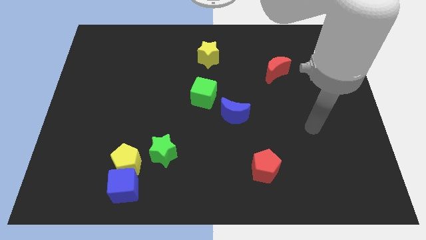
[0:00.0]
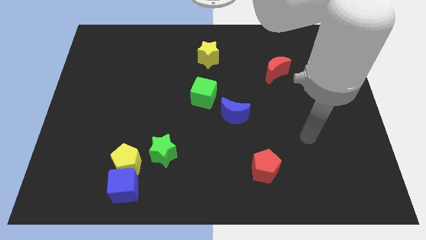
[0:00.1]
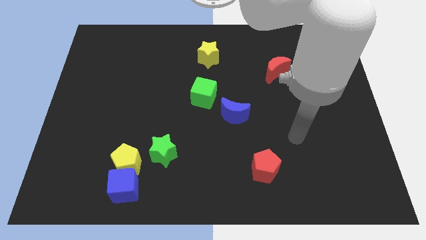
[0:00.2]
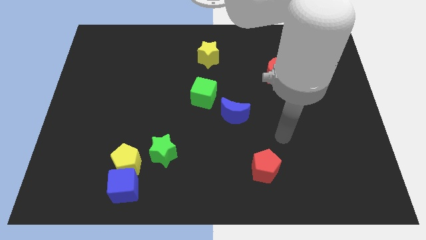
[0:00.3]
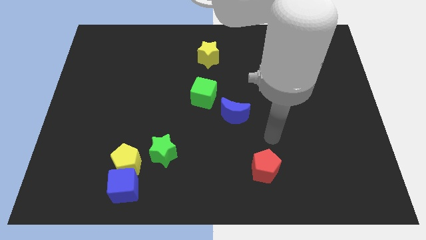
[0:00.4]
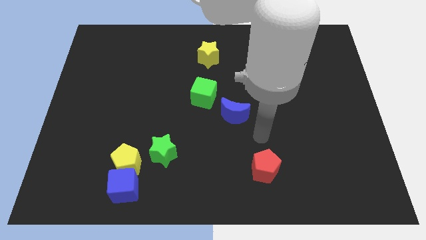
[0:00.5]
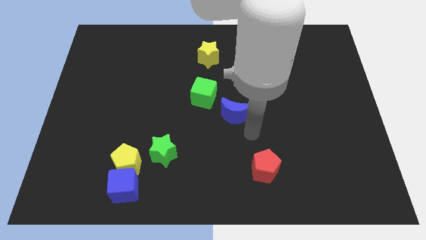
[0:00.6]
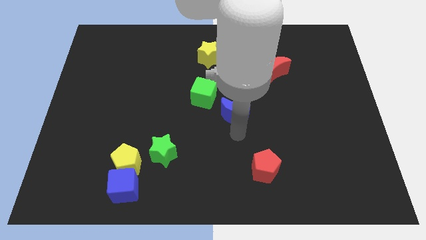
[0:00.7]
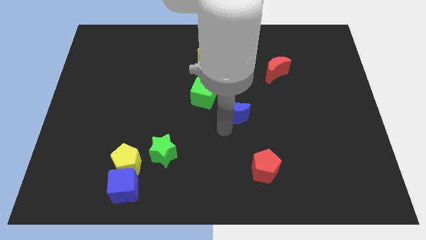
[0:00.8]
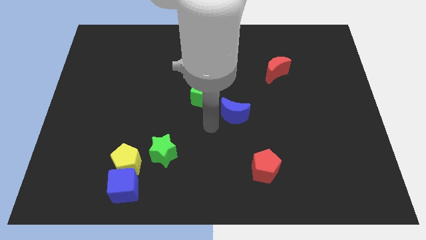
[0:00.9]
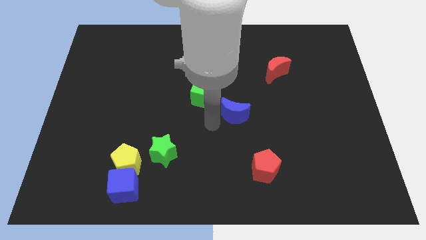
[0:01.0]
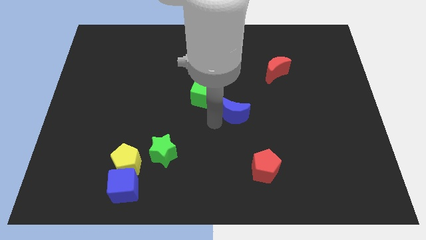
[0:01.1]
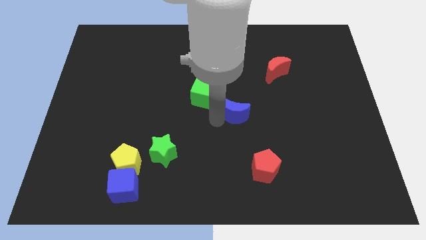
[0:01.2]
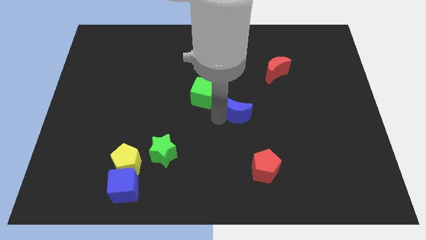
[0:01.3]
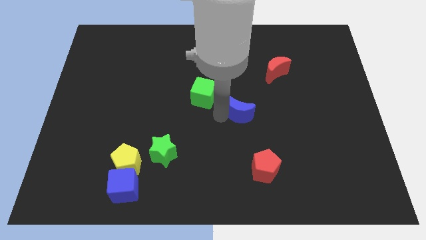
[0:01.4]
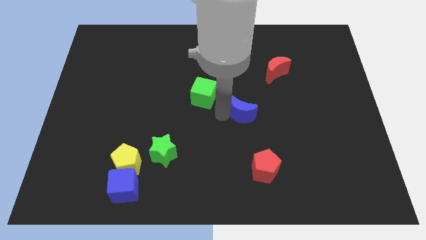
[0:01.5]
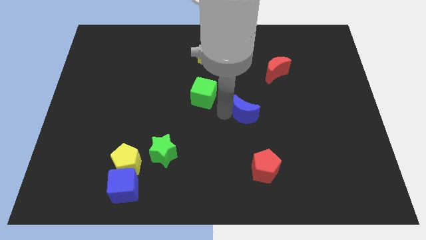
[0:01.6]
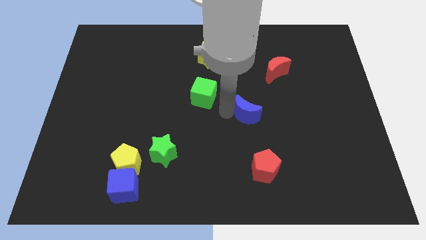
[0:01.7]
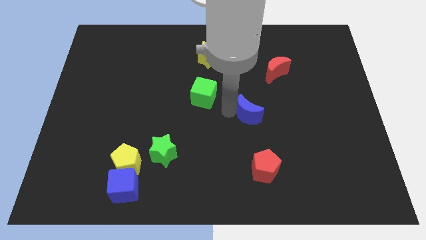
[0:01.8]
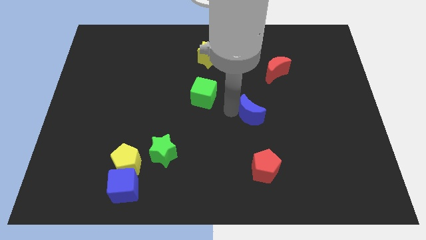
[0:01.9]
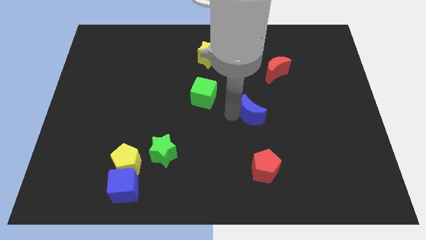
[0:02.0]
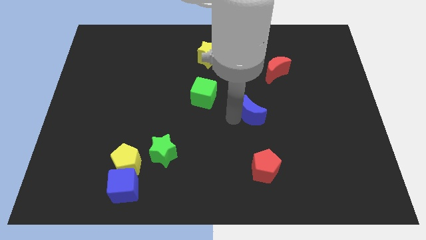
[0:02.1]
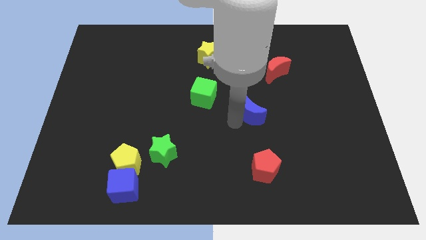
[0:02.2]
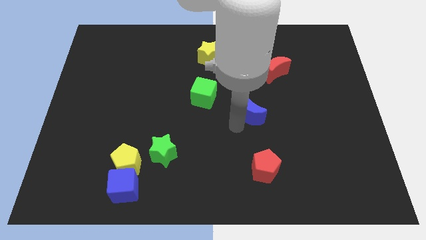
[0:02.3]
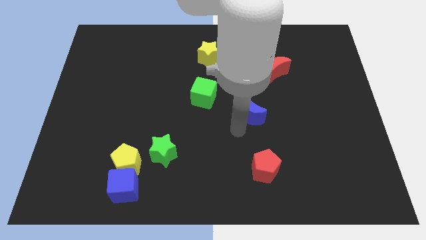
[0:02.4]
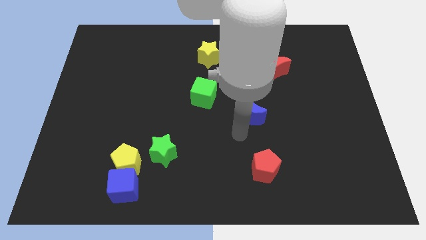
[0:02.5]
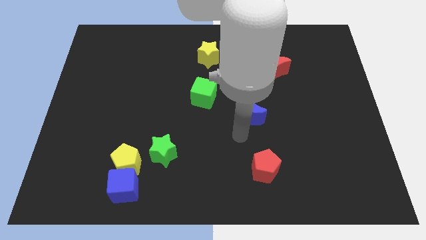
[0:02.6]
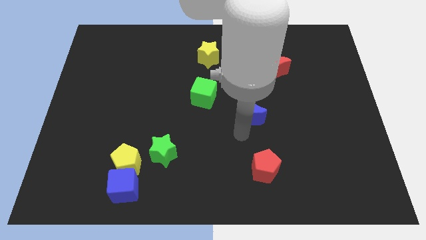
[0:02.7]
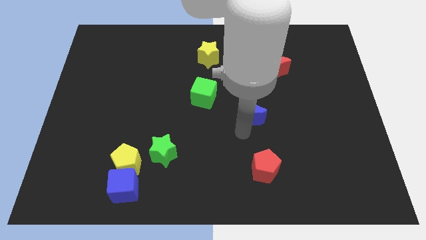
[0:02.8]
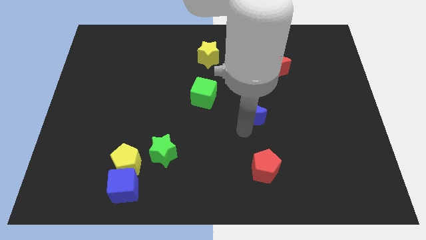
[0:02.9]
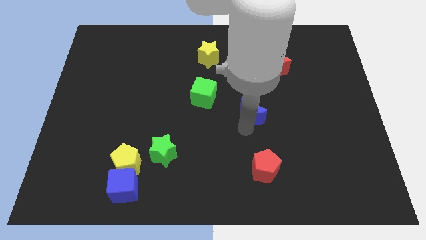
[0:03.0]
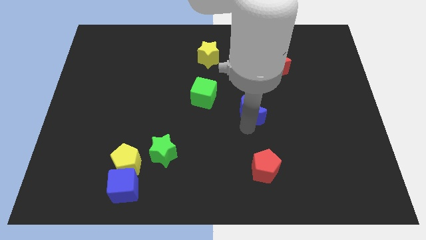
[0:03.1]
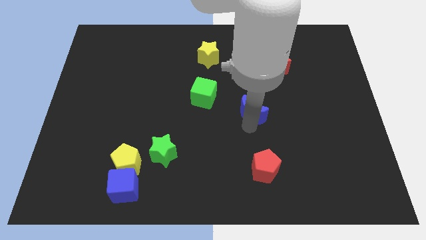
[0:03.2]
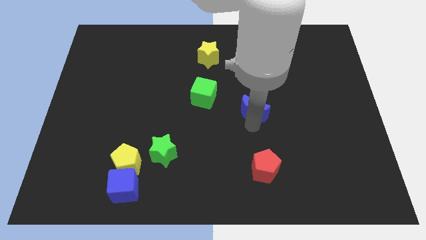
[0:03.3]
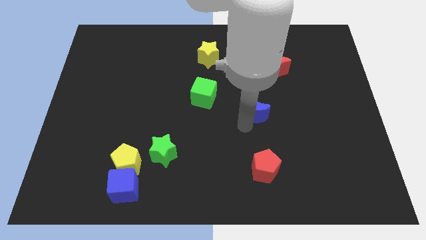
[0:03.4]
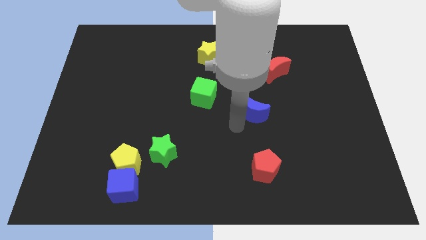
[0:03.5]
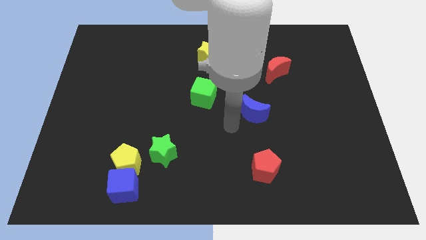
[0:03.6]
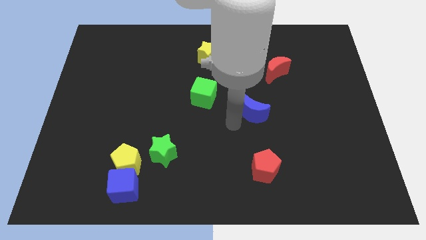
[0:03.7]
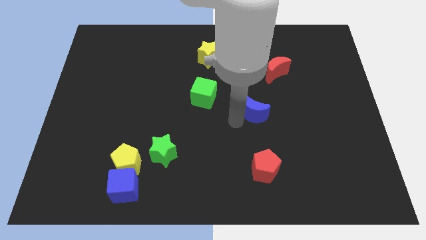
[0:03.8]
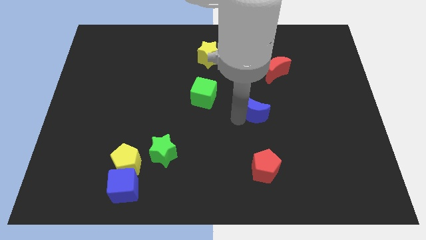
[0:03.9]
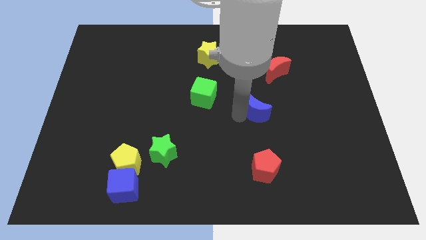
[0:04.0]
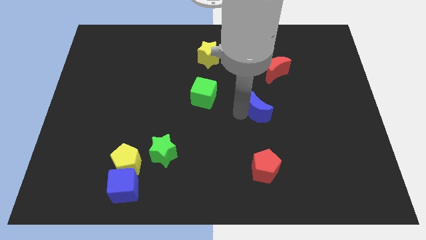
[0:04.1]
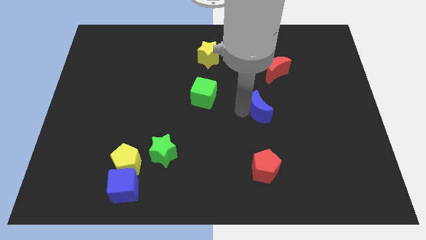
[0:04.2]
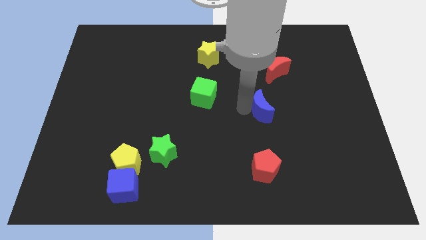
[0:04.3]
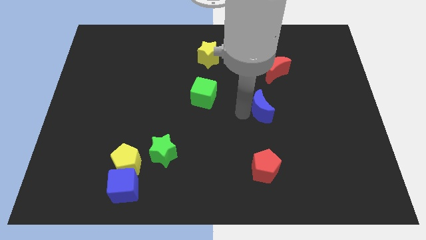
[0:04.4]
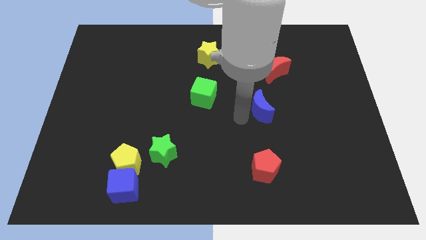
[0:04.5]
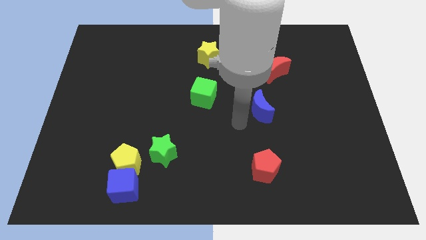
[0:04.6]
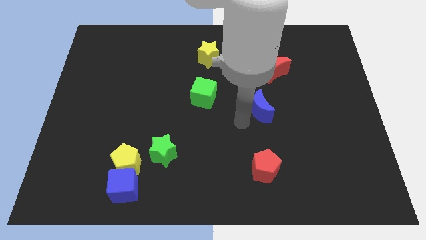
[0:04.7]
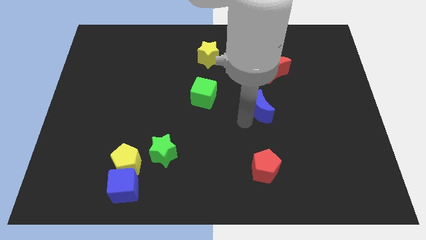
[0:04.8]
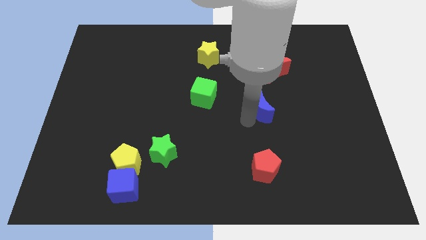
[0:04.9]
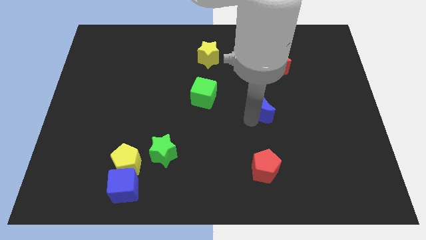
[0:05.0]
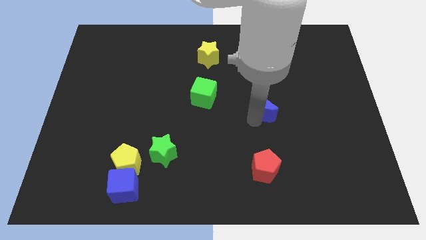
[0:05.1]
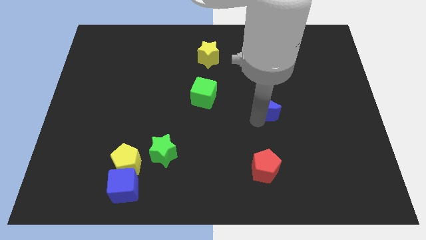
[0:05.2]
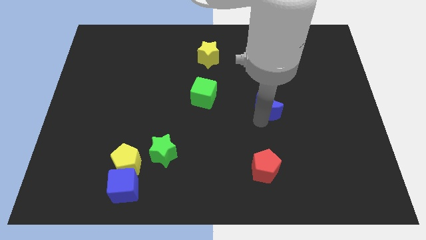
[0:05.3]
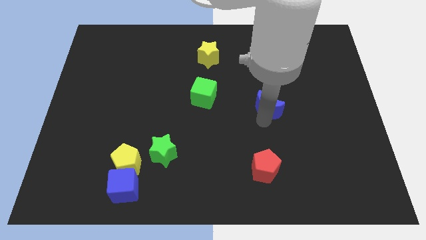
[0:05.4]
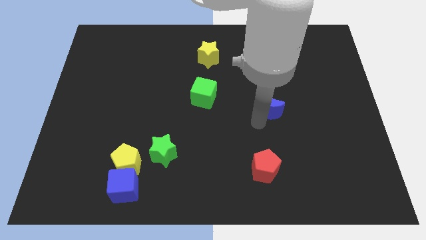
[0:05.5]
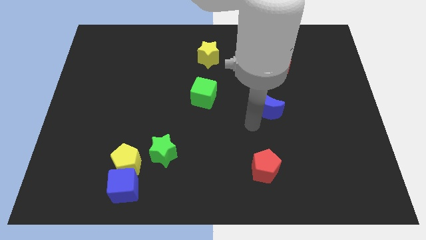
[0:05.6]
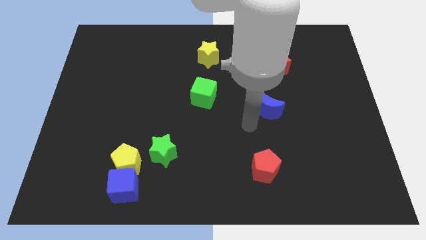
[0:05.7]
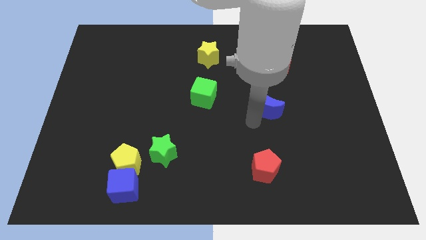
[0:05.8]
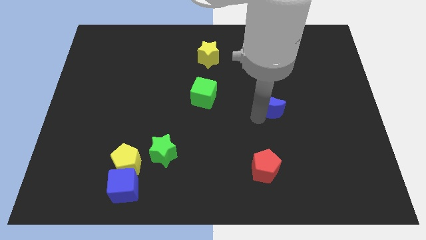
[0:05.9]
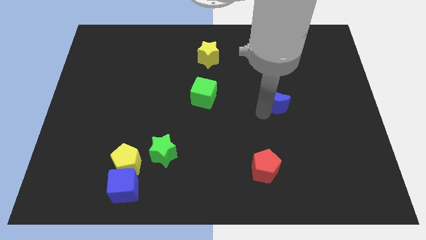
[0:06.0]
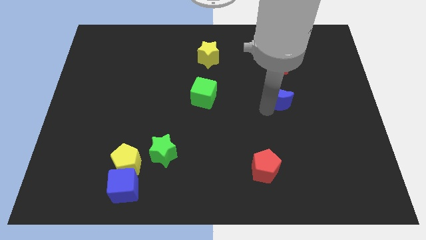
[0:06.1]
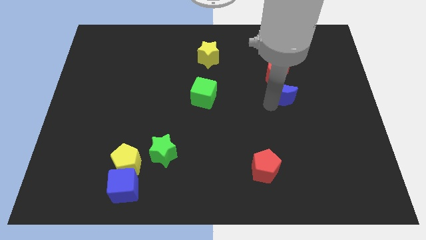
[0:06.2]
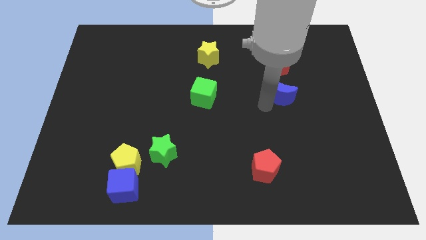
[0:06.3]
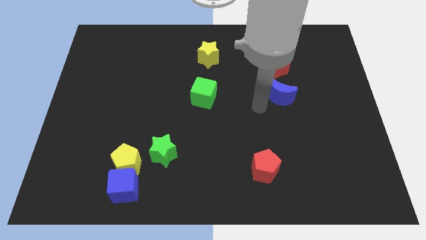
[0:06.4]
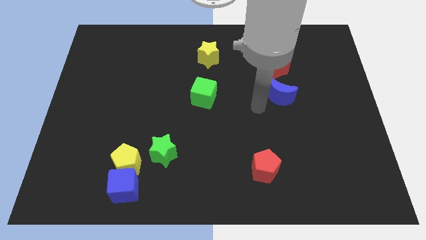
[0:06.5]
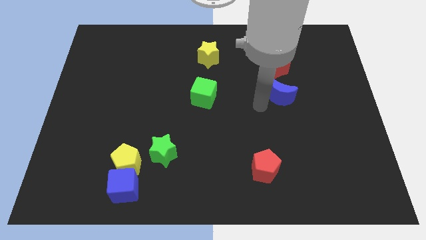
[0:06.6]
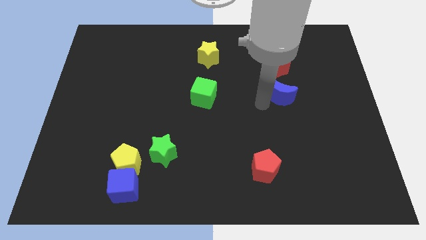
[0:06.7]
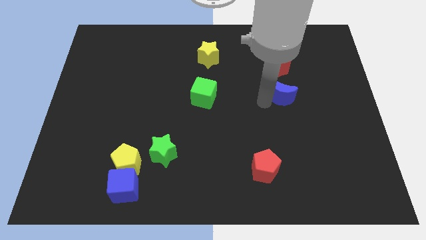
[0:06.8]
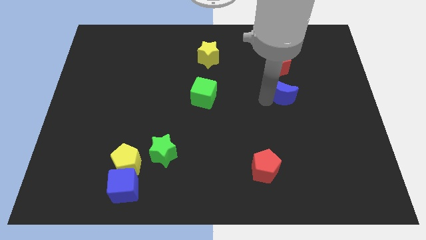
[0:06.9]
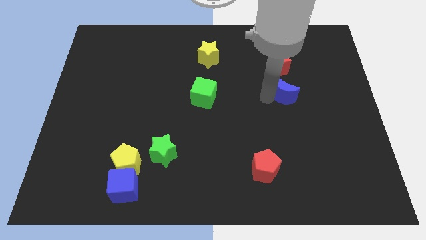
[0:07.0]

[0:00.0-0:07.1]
move the blue moon to the bottom right of the red moon

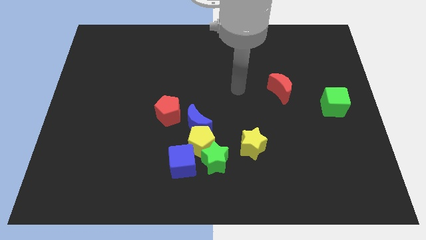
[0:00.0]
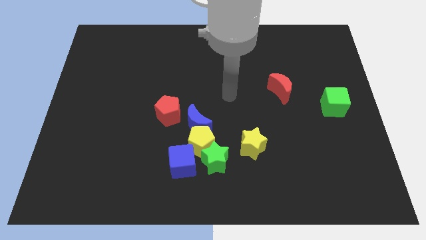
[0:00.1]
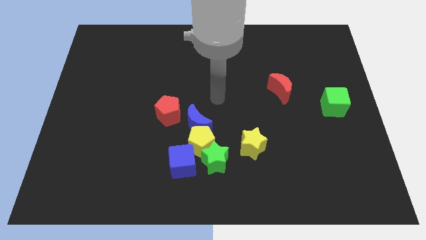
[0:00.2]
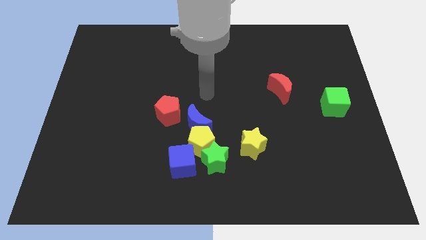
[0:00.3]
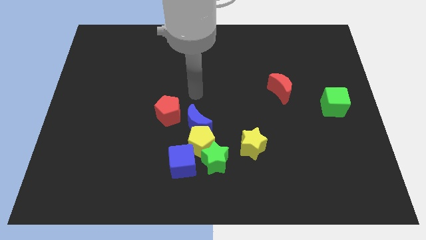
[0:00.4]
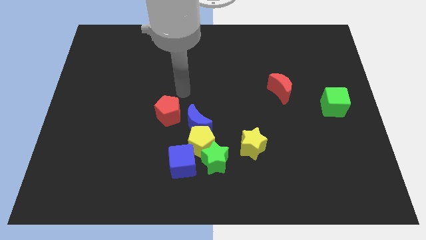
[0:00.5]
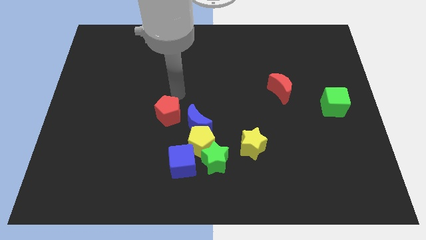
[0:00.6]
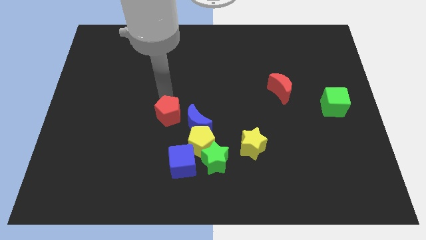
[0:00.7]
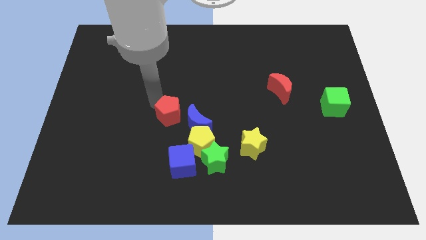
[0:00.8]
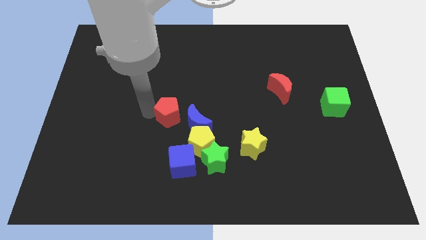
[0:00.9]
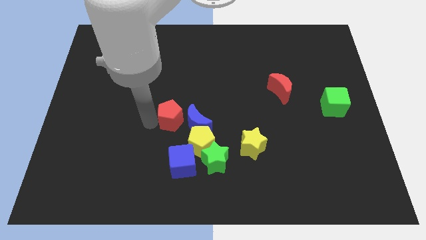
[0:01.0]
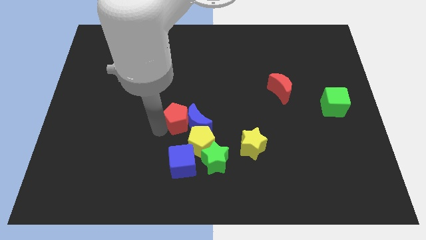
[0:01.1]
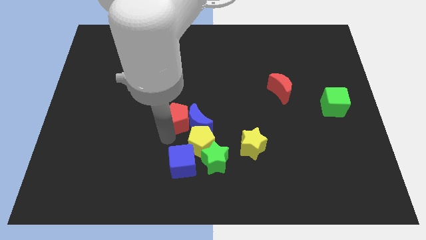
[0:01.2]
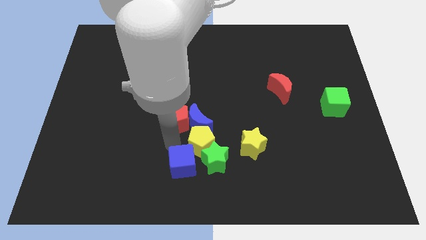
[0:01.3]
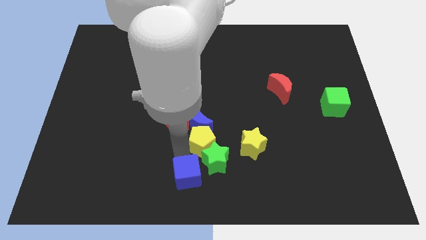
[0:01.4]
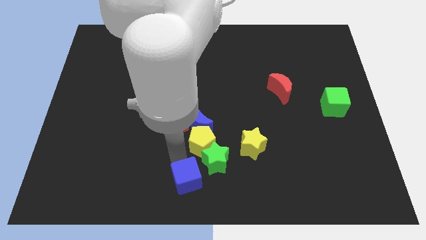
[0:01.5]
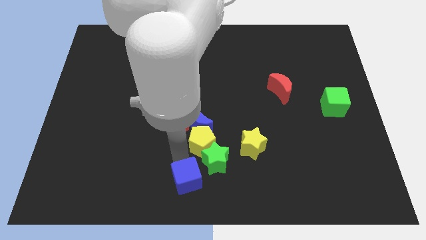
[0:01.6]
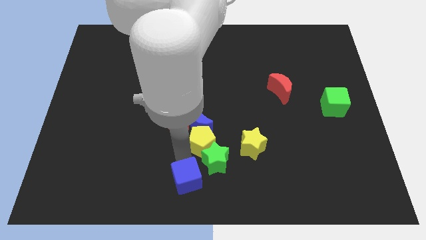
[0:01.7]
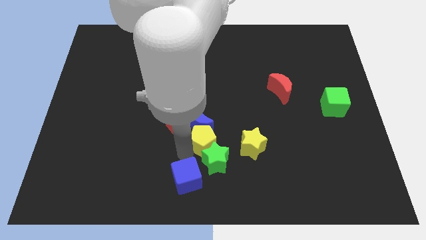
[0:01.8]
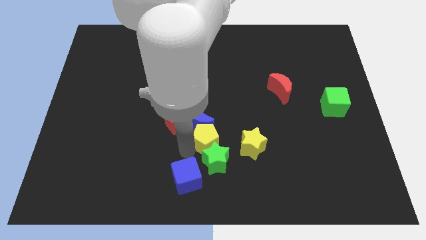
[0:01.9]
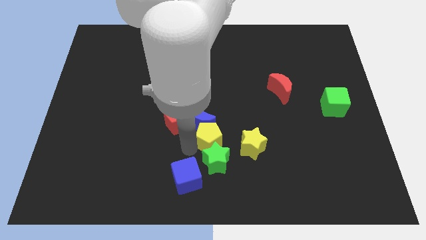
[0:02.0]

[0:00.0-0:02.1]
put the yellow pentagon diagonally up and to the right of the green star
